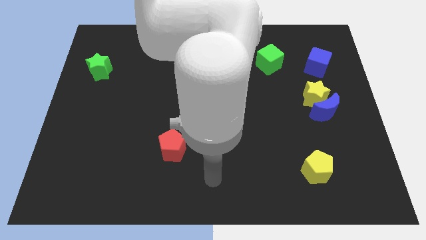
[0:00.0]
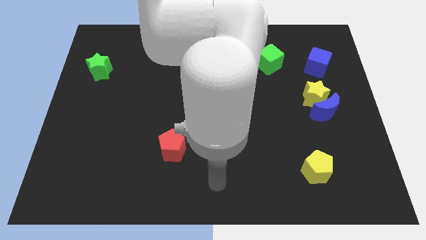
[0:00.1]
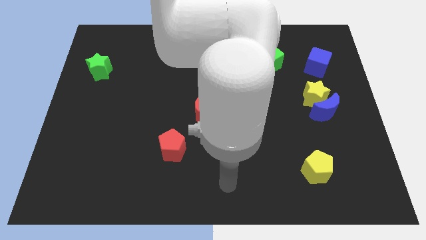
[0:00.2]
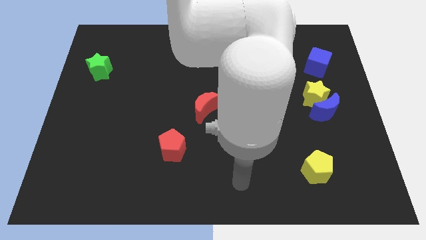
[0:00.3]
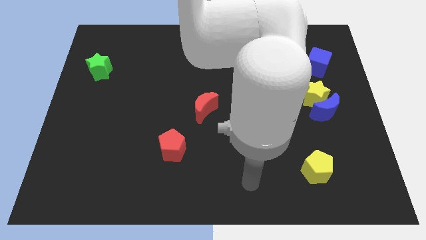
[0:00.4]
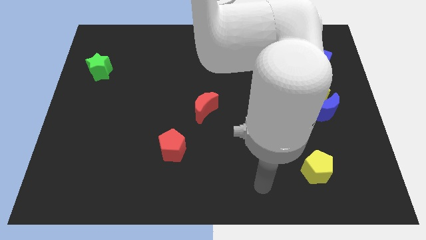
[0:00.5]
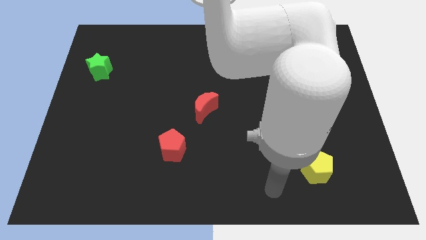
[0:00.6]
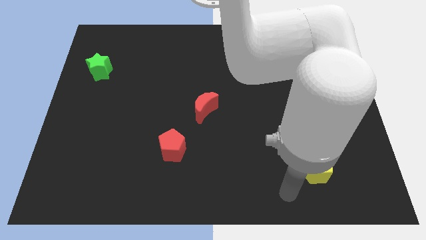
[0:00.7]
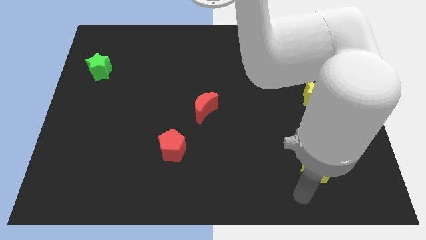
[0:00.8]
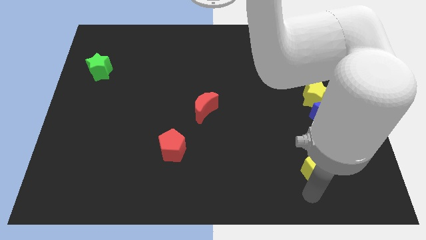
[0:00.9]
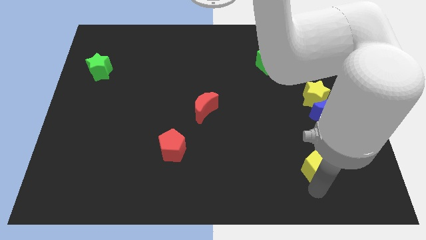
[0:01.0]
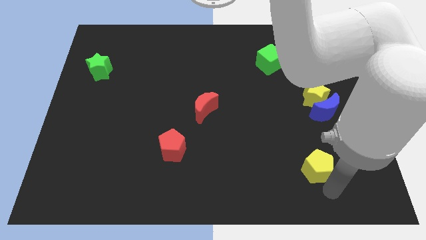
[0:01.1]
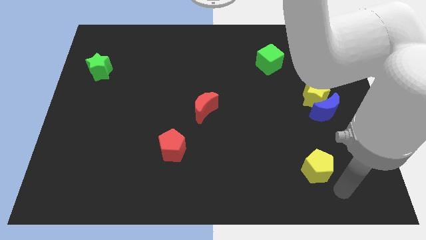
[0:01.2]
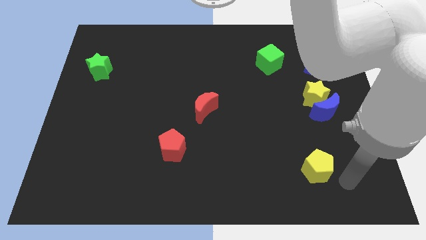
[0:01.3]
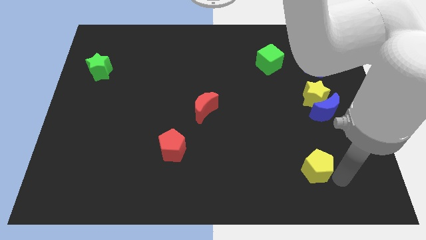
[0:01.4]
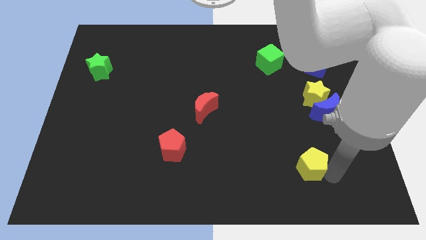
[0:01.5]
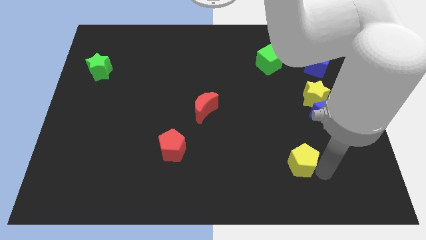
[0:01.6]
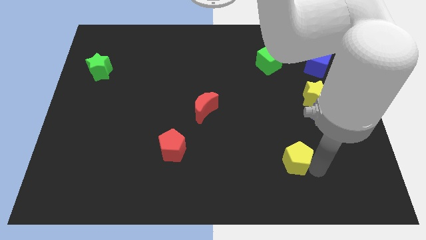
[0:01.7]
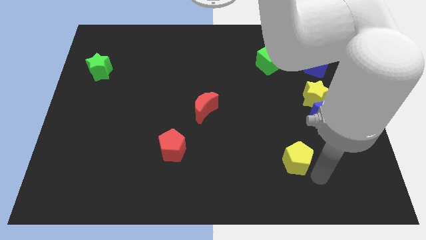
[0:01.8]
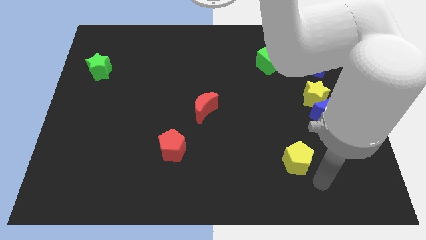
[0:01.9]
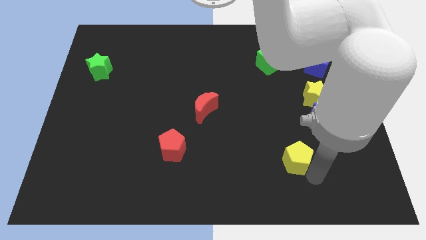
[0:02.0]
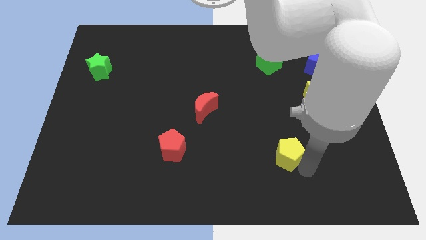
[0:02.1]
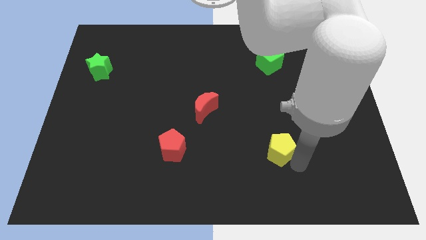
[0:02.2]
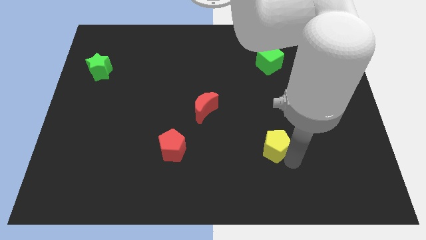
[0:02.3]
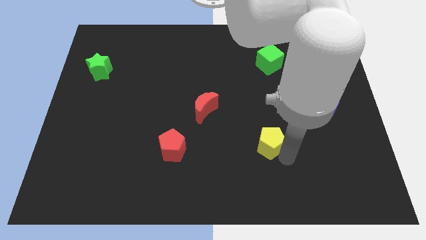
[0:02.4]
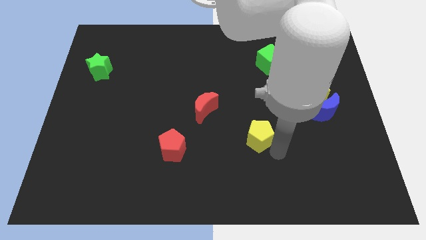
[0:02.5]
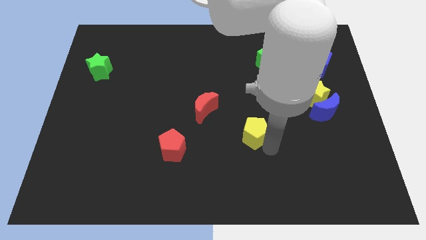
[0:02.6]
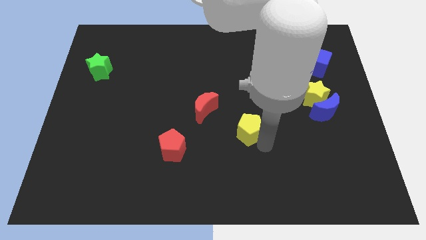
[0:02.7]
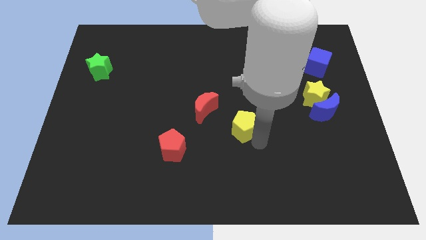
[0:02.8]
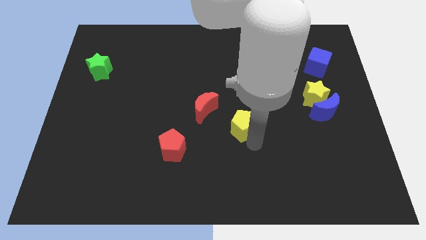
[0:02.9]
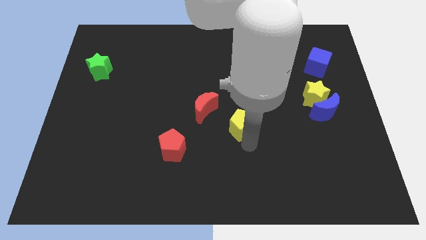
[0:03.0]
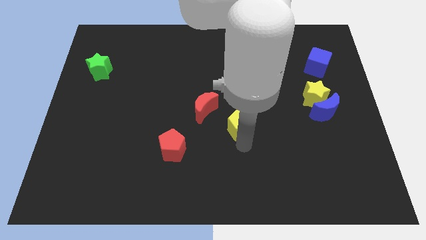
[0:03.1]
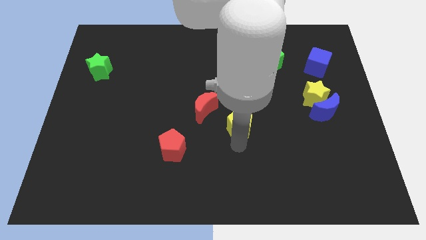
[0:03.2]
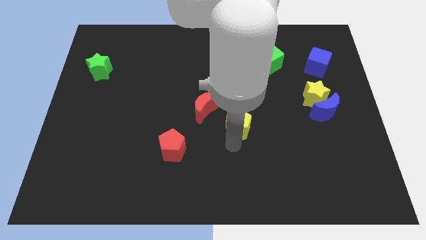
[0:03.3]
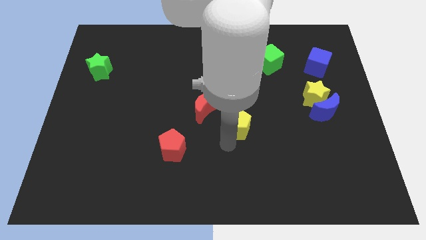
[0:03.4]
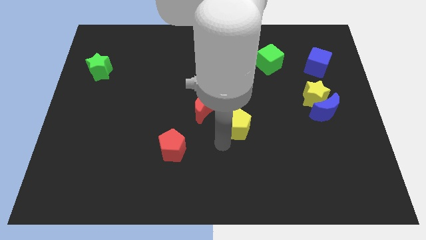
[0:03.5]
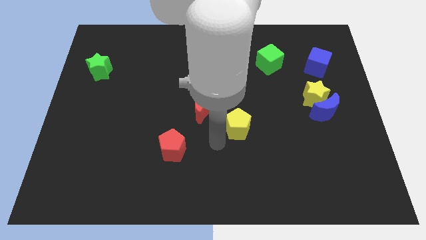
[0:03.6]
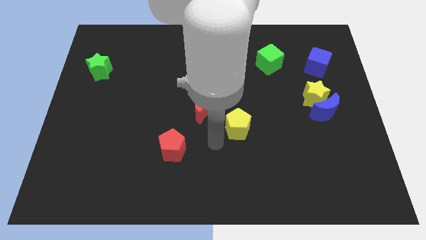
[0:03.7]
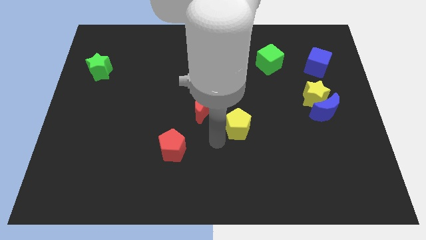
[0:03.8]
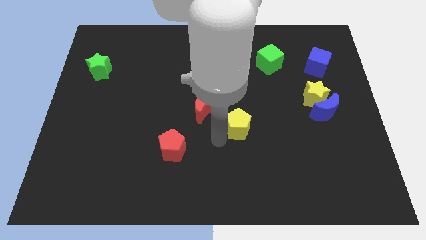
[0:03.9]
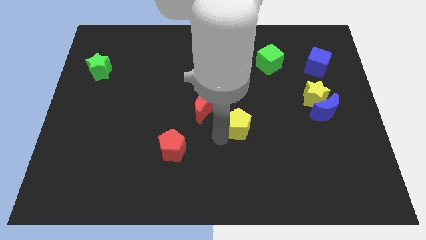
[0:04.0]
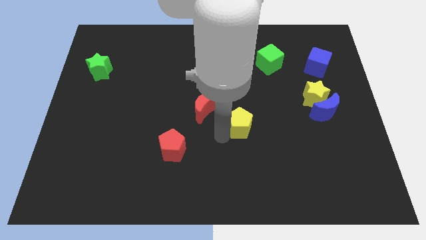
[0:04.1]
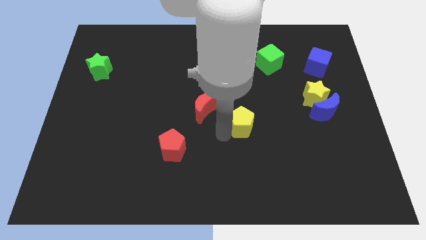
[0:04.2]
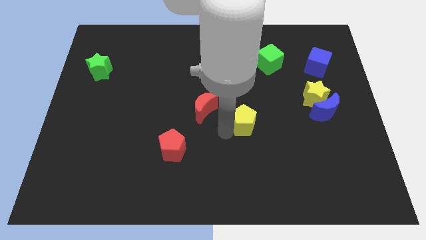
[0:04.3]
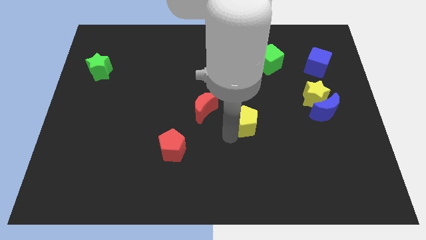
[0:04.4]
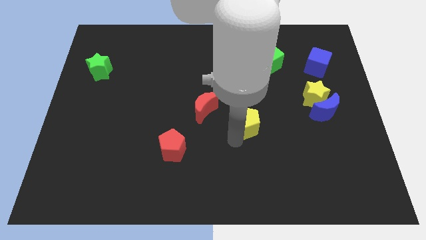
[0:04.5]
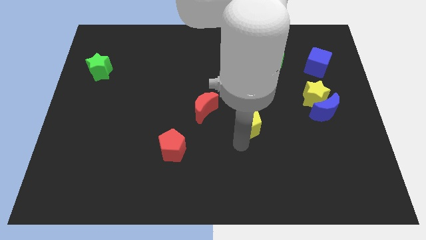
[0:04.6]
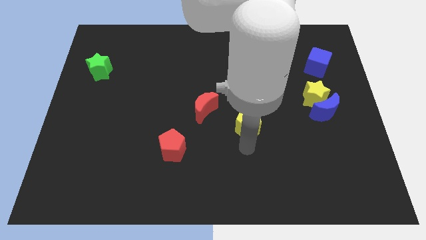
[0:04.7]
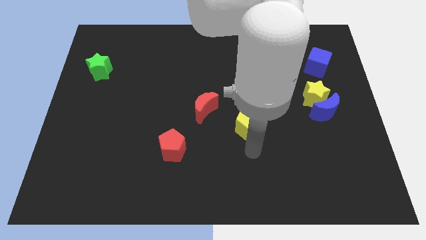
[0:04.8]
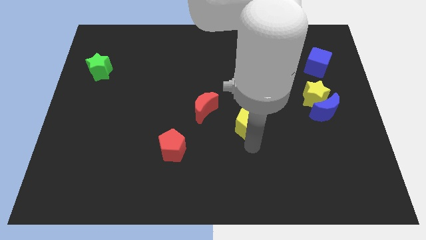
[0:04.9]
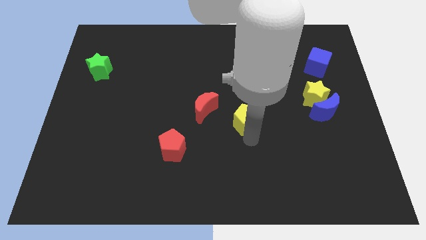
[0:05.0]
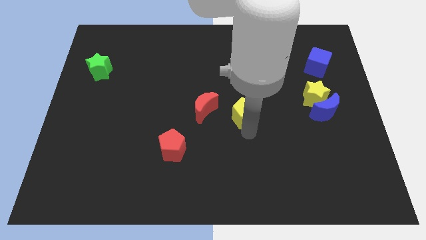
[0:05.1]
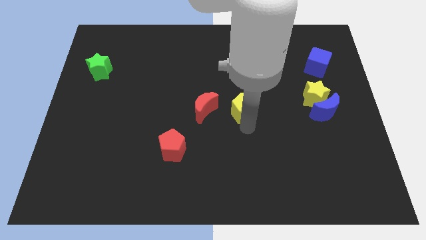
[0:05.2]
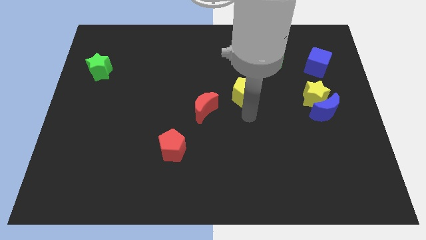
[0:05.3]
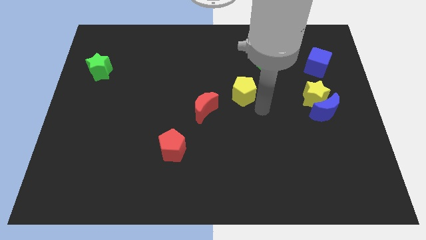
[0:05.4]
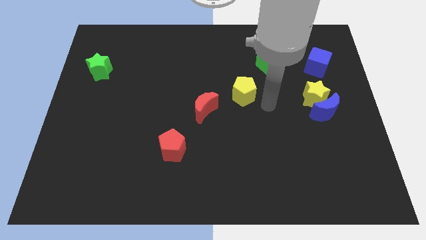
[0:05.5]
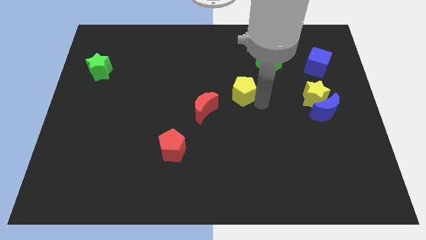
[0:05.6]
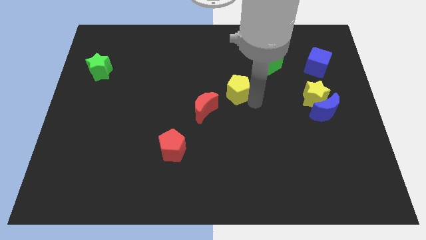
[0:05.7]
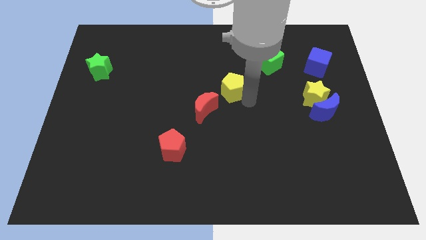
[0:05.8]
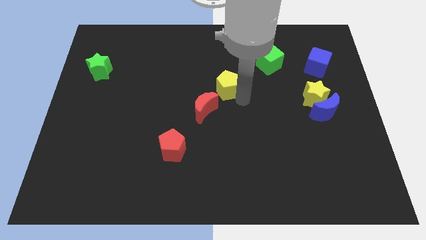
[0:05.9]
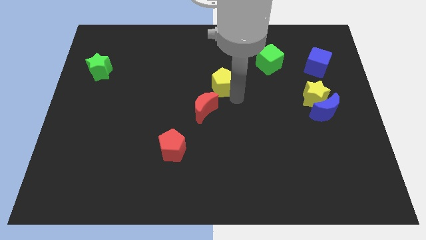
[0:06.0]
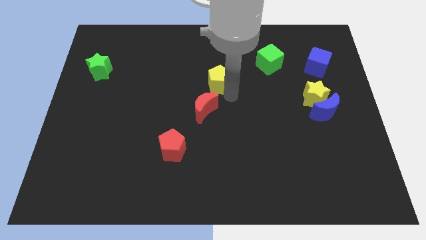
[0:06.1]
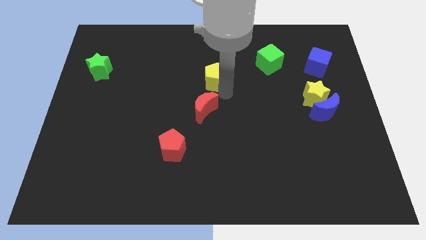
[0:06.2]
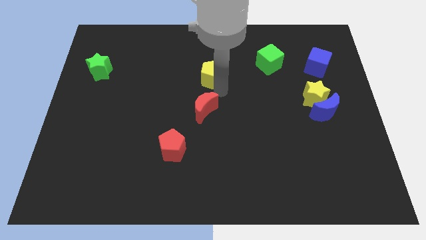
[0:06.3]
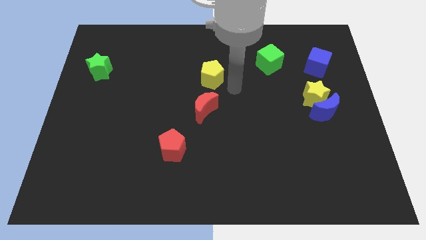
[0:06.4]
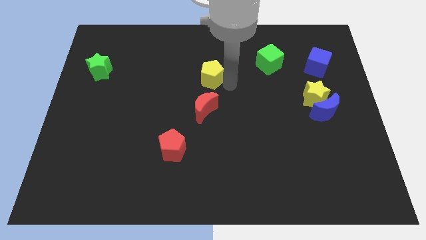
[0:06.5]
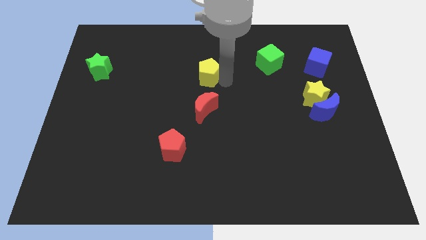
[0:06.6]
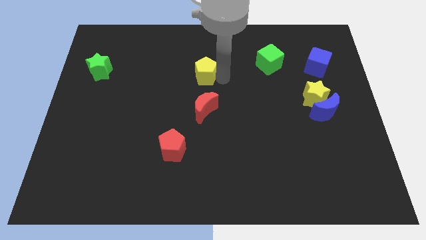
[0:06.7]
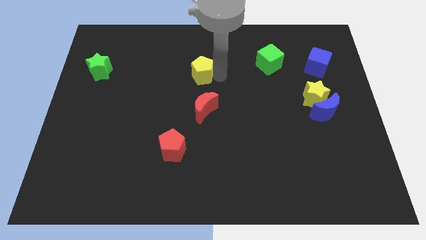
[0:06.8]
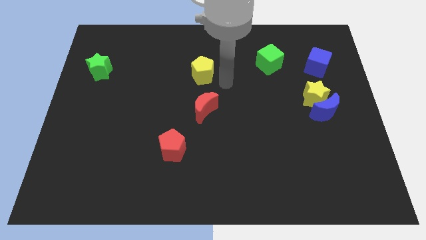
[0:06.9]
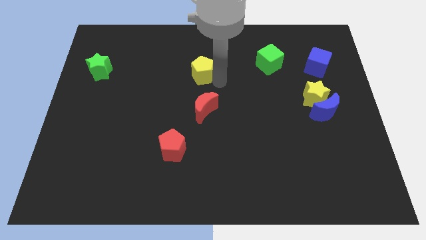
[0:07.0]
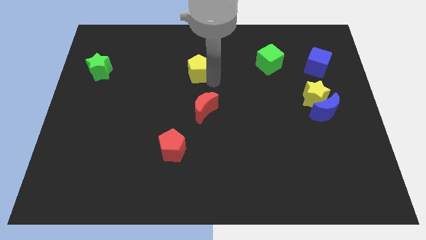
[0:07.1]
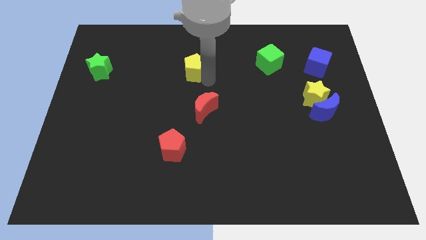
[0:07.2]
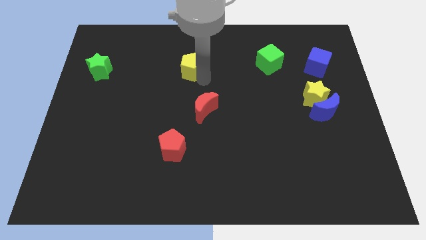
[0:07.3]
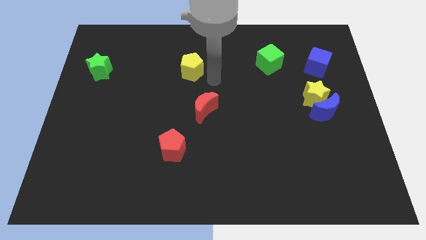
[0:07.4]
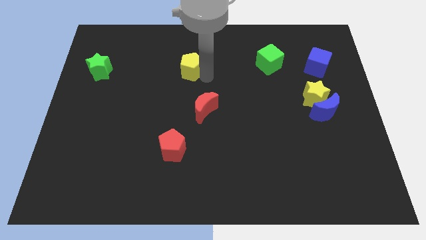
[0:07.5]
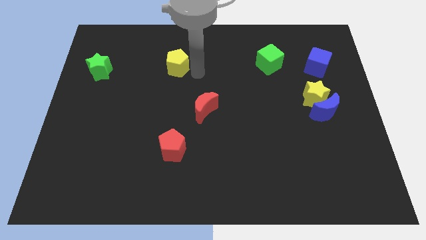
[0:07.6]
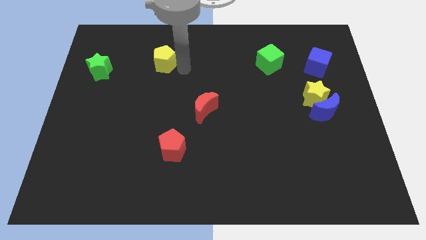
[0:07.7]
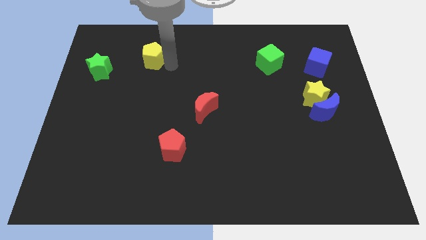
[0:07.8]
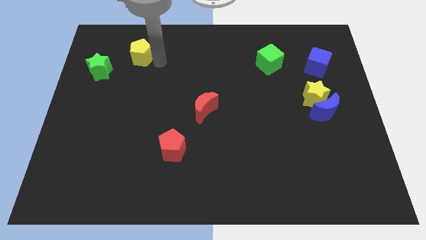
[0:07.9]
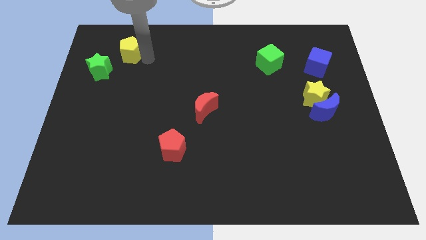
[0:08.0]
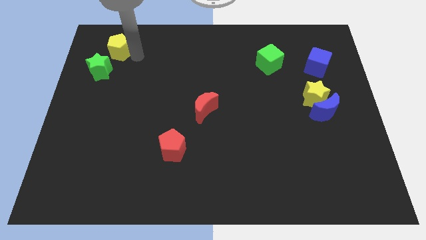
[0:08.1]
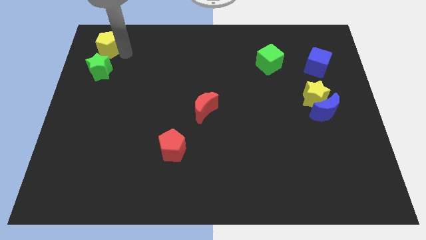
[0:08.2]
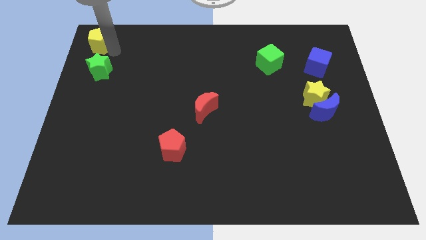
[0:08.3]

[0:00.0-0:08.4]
put the yellow pentagon to the top left corner
